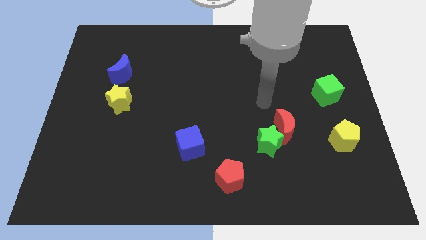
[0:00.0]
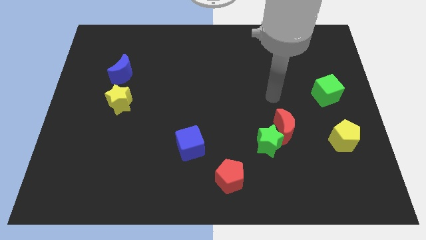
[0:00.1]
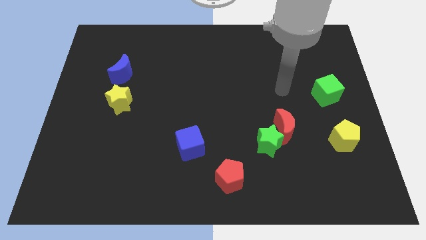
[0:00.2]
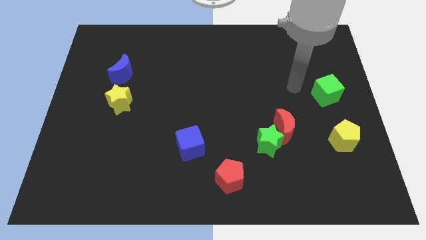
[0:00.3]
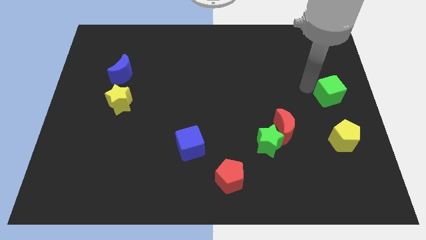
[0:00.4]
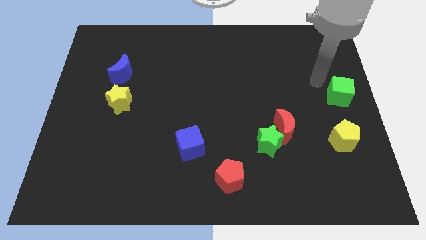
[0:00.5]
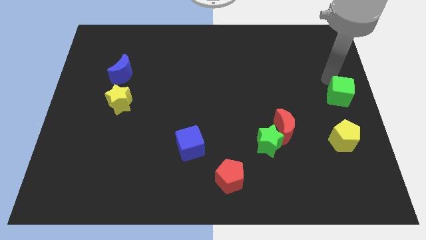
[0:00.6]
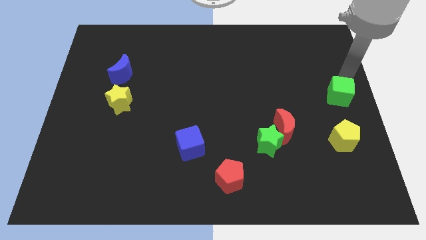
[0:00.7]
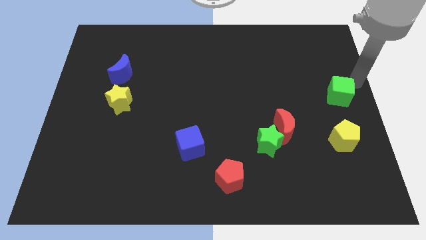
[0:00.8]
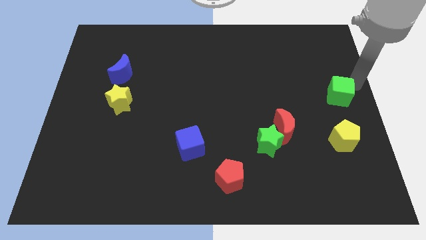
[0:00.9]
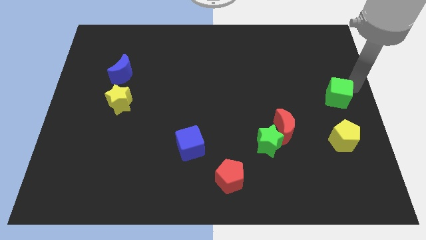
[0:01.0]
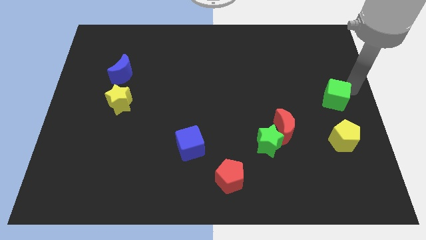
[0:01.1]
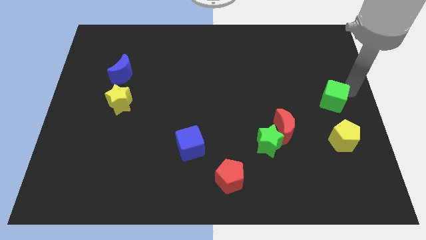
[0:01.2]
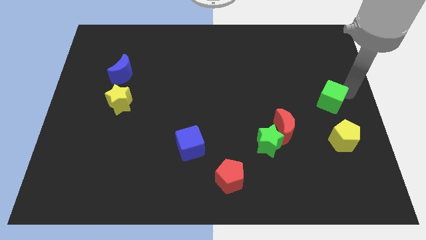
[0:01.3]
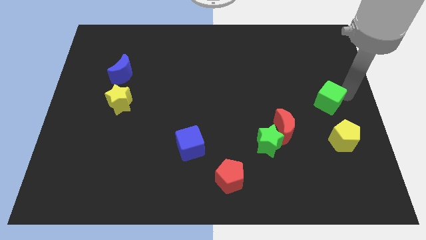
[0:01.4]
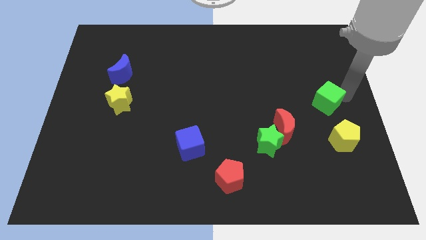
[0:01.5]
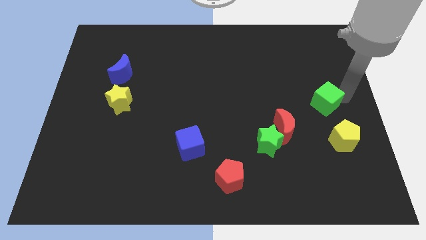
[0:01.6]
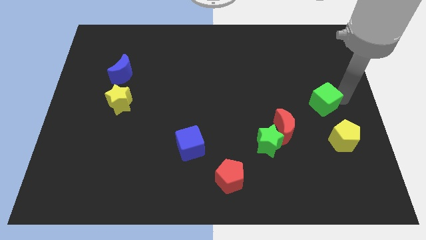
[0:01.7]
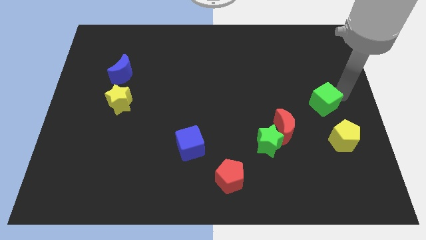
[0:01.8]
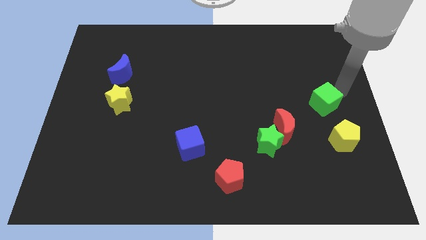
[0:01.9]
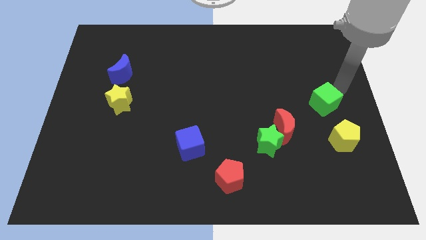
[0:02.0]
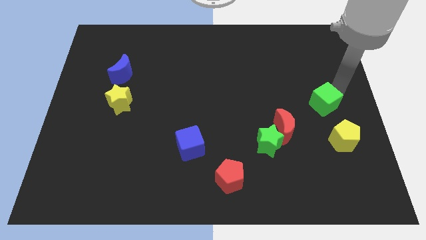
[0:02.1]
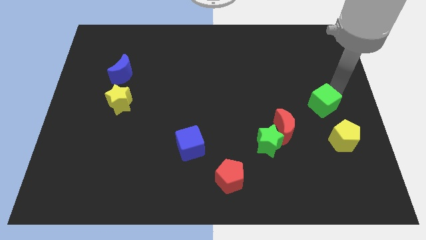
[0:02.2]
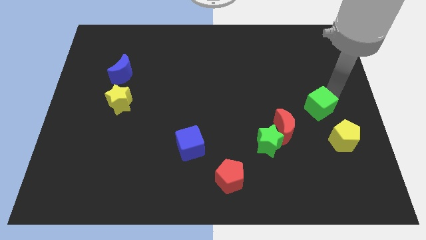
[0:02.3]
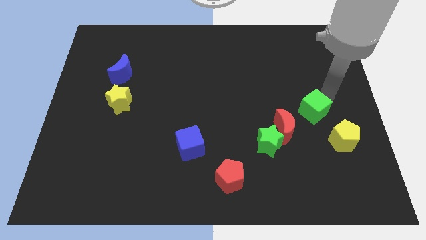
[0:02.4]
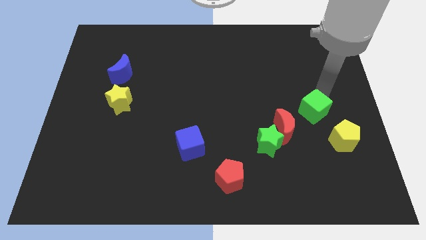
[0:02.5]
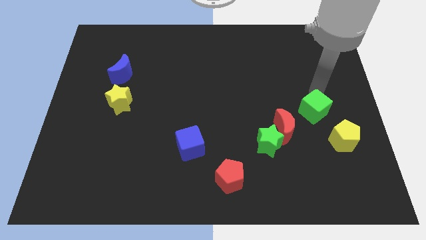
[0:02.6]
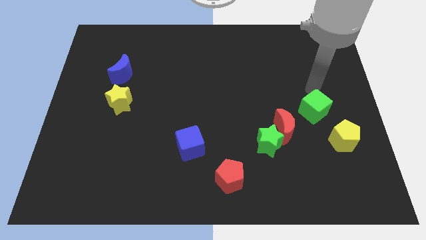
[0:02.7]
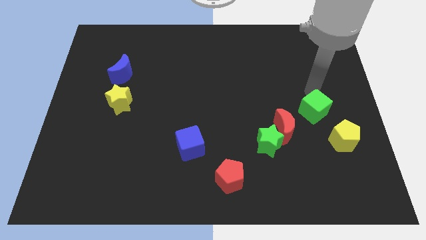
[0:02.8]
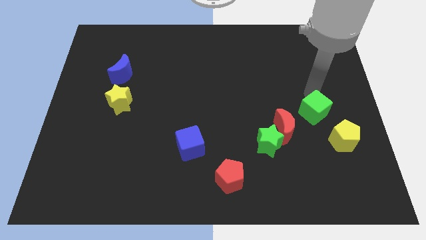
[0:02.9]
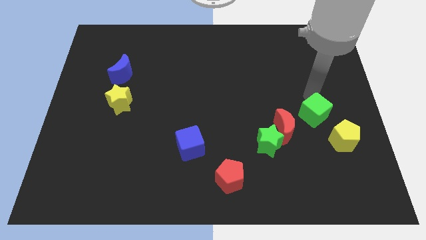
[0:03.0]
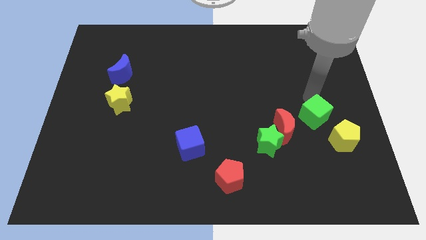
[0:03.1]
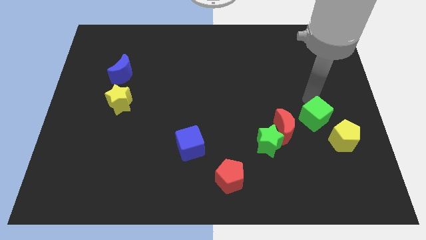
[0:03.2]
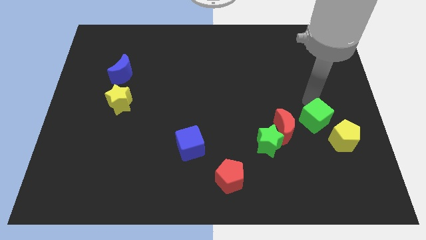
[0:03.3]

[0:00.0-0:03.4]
push the green cube a little bit downwards

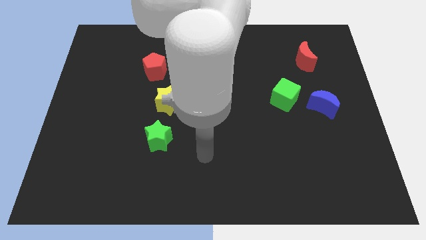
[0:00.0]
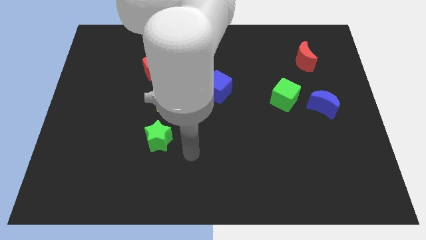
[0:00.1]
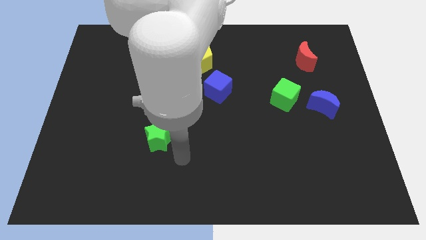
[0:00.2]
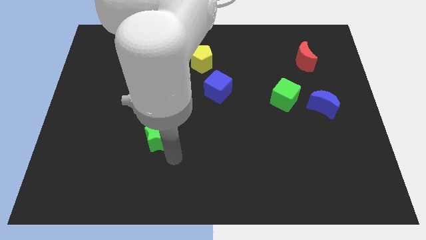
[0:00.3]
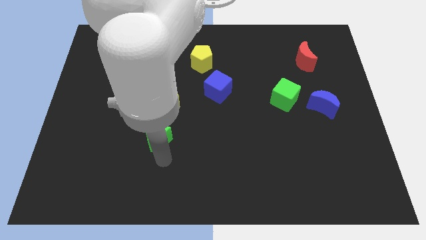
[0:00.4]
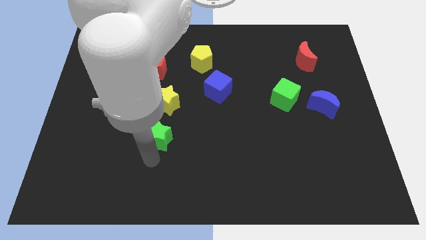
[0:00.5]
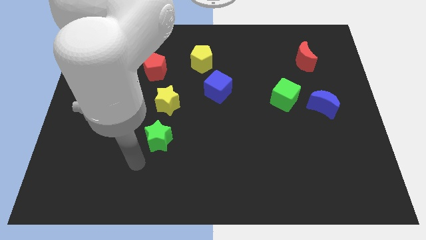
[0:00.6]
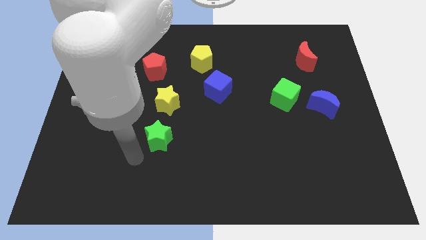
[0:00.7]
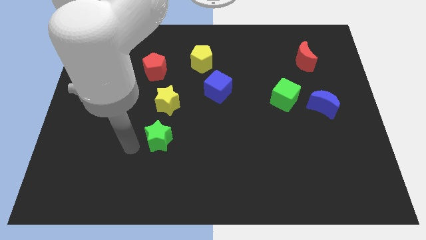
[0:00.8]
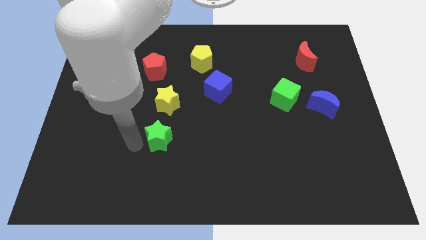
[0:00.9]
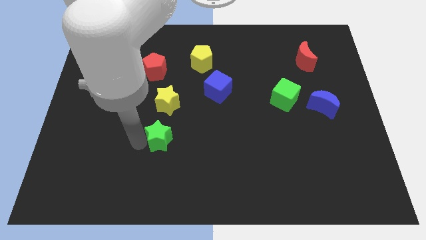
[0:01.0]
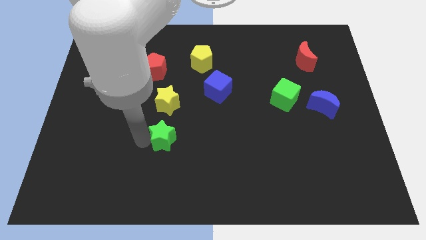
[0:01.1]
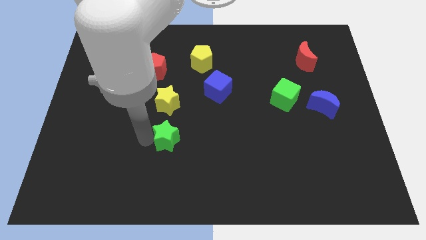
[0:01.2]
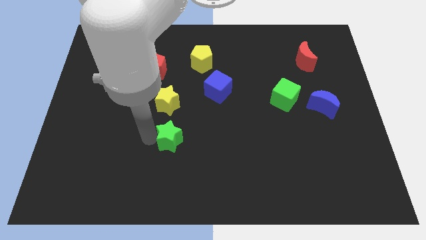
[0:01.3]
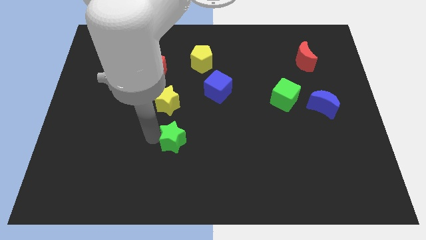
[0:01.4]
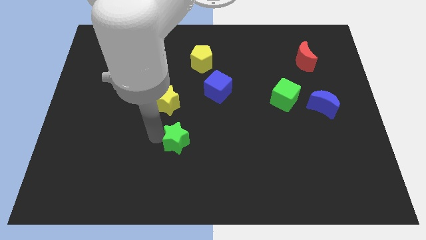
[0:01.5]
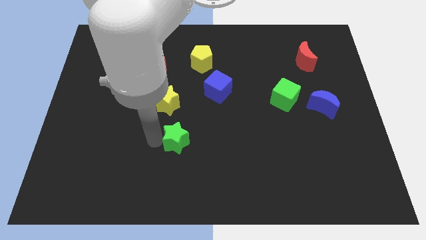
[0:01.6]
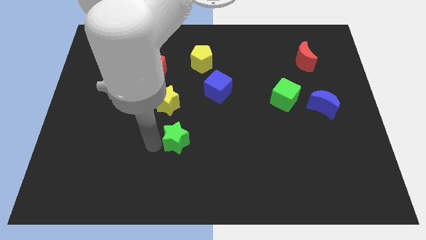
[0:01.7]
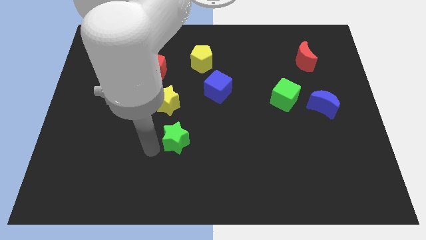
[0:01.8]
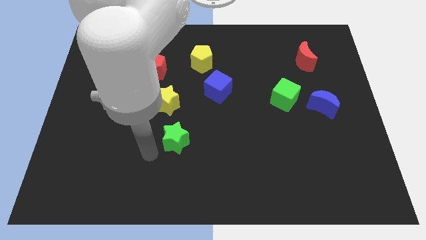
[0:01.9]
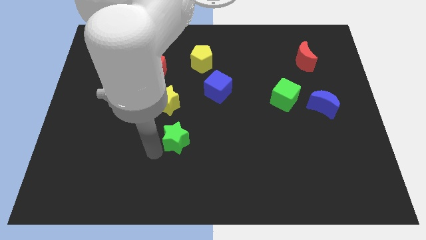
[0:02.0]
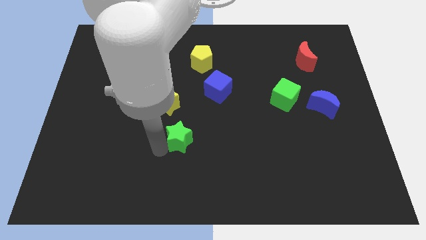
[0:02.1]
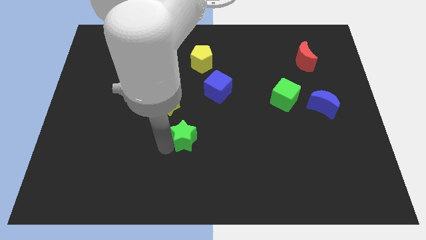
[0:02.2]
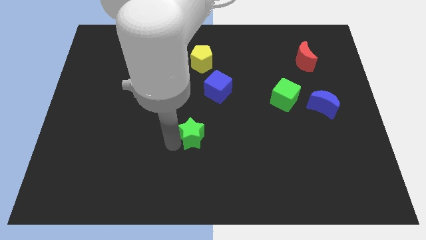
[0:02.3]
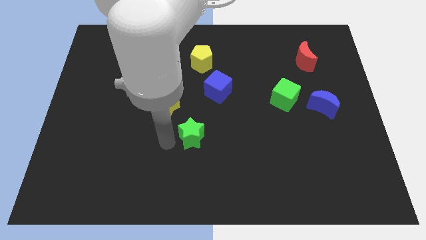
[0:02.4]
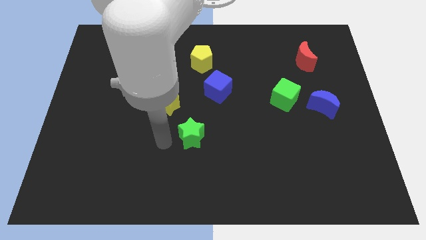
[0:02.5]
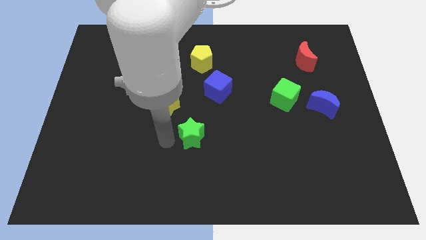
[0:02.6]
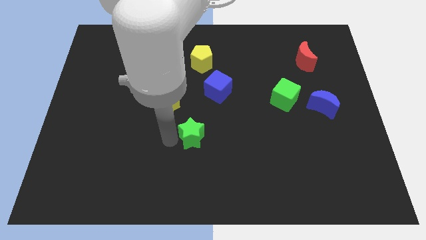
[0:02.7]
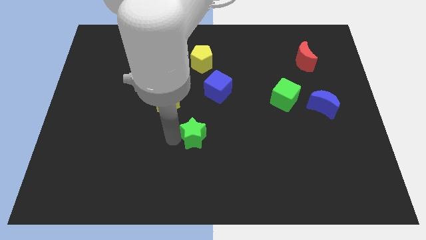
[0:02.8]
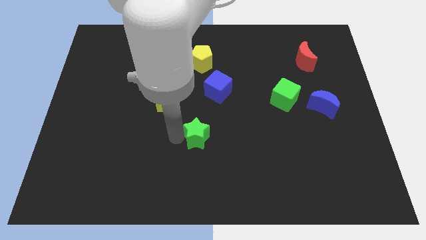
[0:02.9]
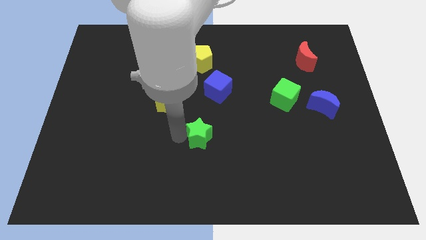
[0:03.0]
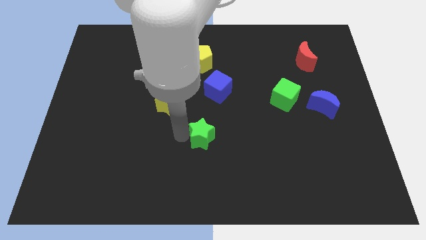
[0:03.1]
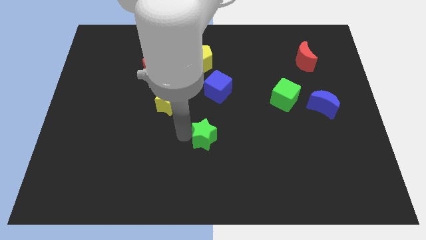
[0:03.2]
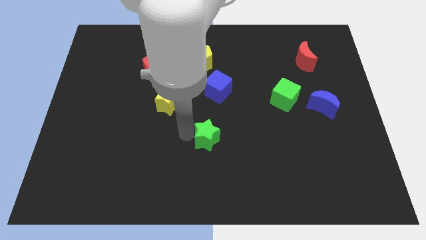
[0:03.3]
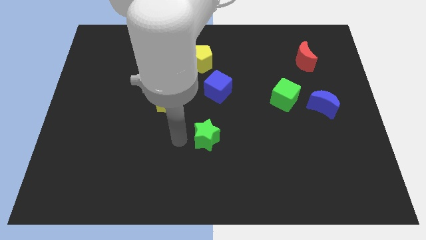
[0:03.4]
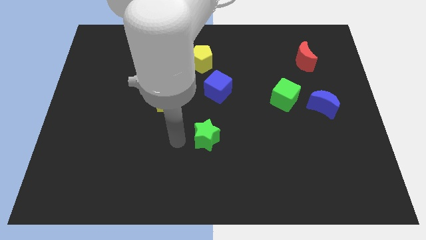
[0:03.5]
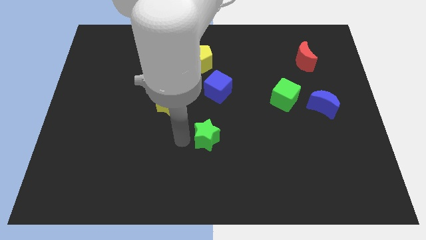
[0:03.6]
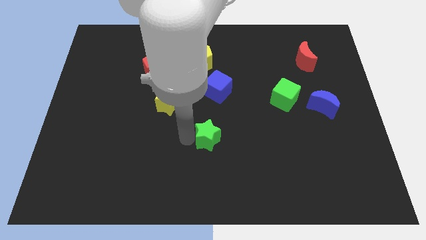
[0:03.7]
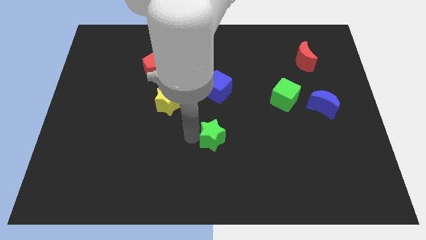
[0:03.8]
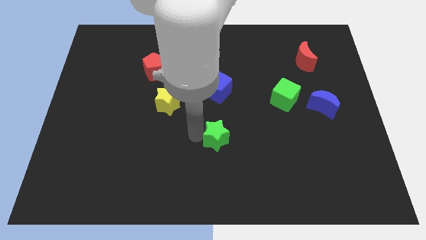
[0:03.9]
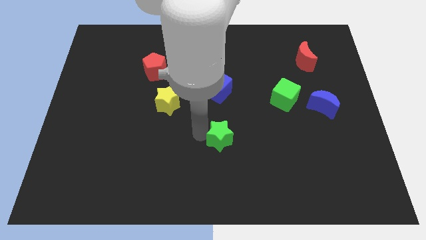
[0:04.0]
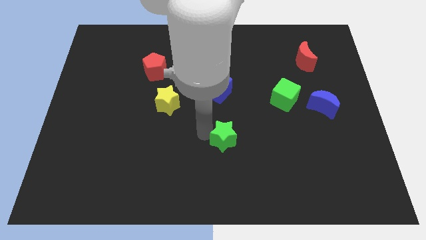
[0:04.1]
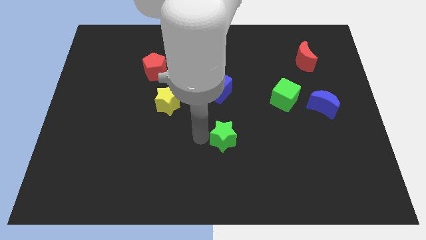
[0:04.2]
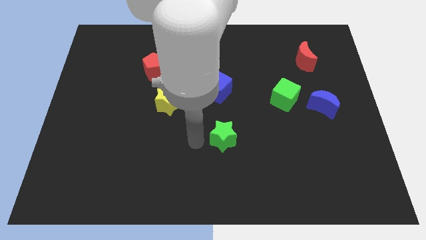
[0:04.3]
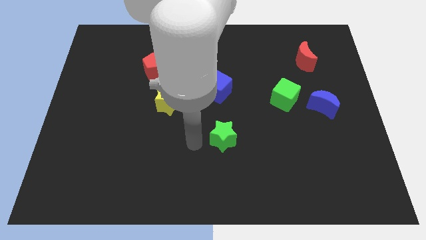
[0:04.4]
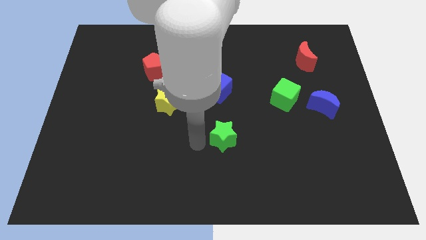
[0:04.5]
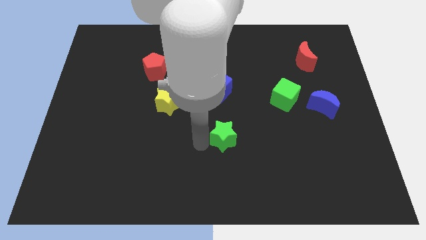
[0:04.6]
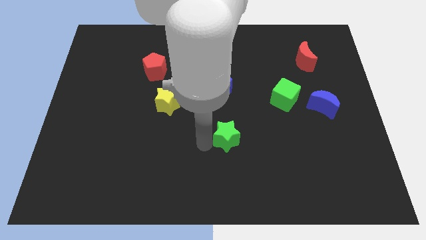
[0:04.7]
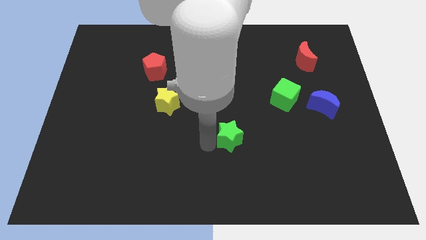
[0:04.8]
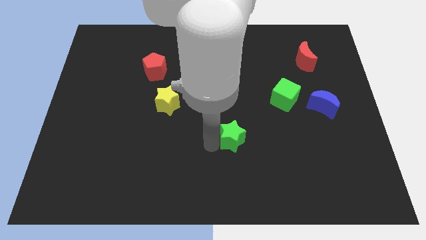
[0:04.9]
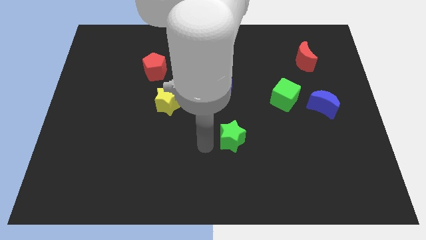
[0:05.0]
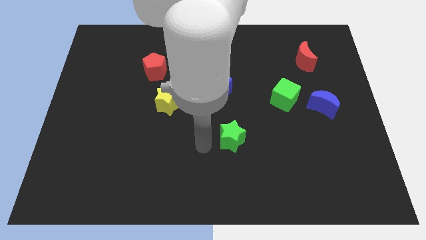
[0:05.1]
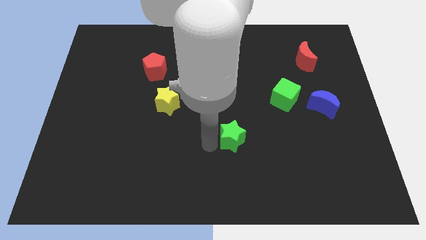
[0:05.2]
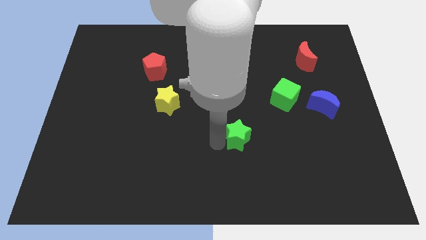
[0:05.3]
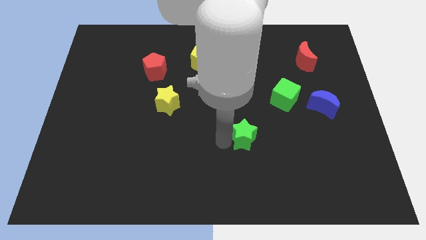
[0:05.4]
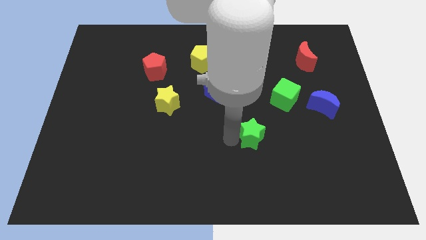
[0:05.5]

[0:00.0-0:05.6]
slide the green star right
